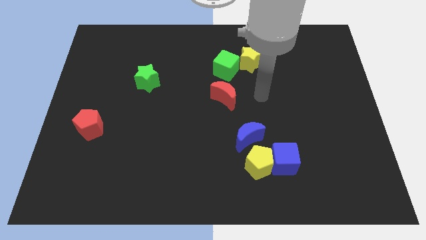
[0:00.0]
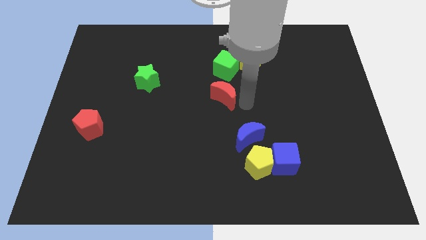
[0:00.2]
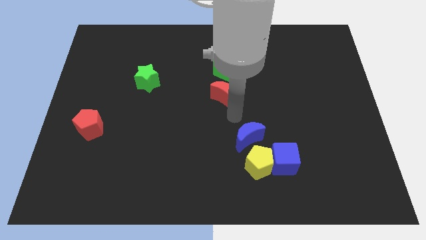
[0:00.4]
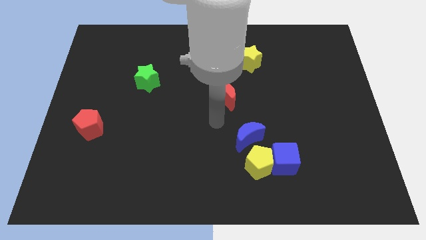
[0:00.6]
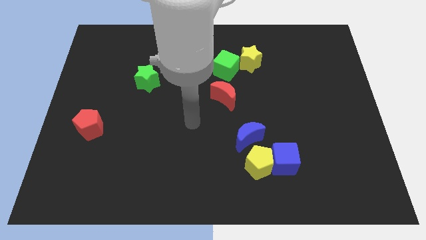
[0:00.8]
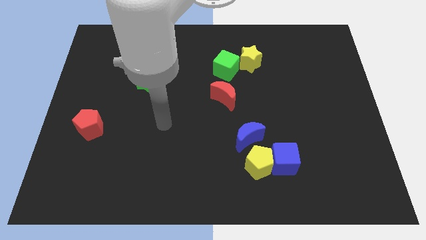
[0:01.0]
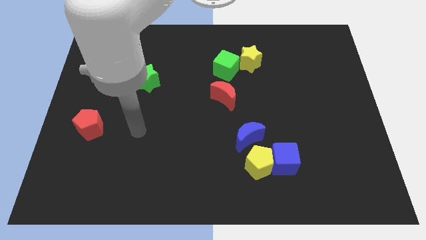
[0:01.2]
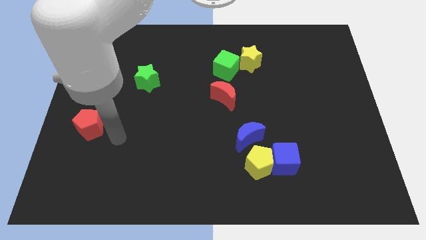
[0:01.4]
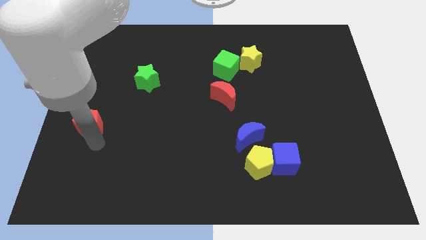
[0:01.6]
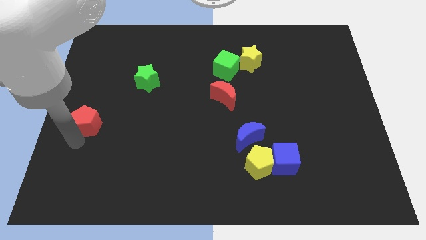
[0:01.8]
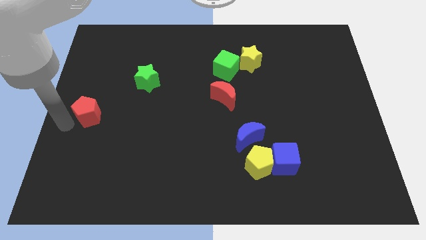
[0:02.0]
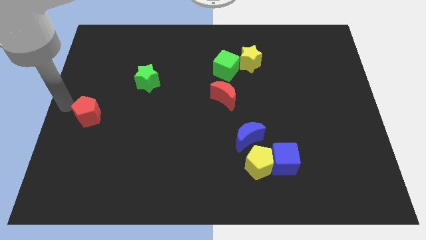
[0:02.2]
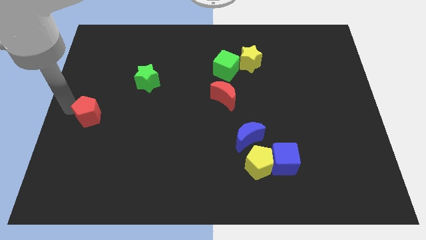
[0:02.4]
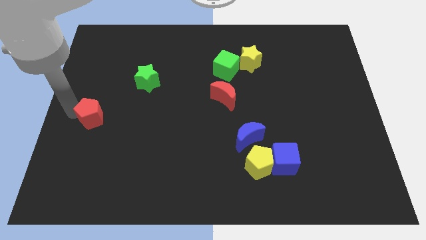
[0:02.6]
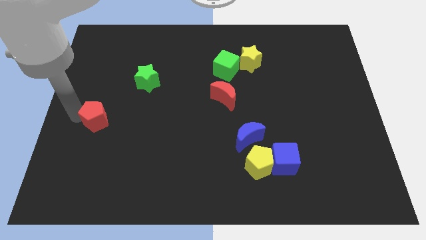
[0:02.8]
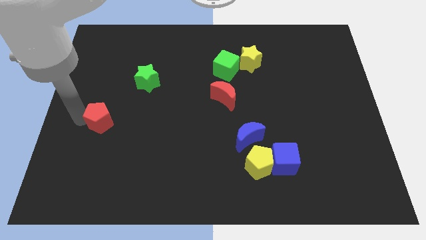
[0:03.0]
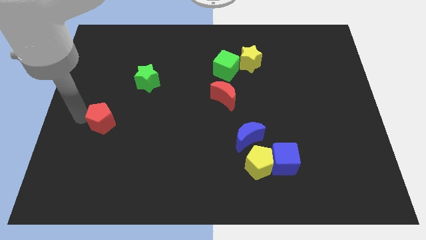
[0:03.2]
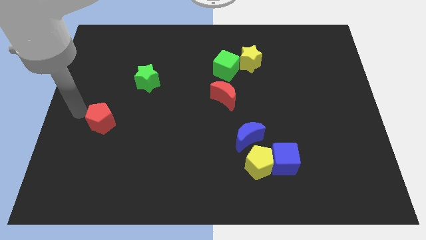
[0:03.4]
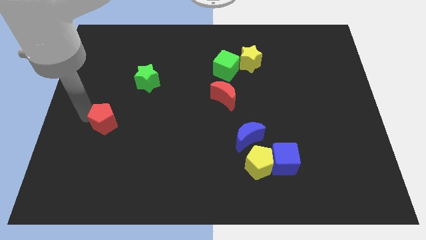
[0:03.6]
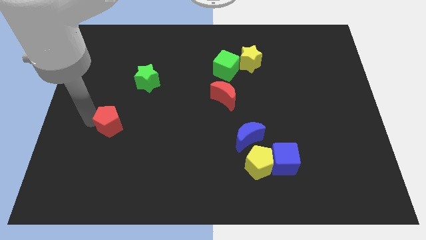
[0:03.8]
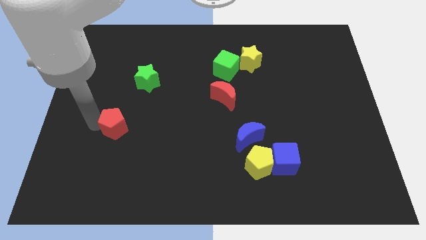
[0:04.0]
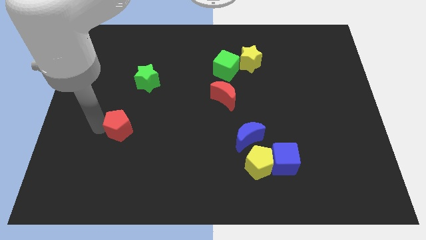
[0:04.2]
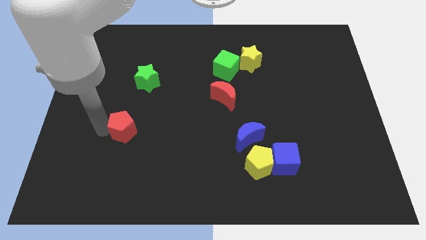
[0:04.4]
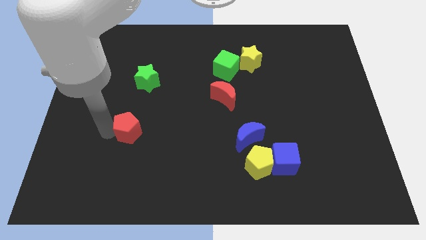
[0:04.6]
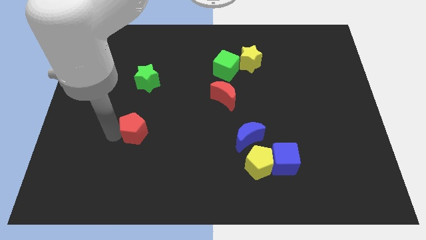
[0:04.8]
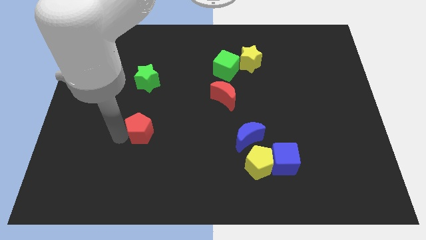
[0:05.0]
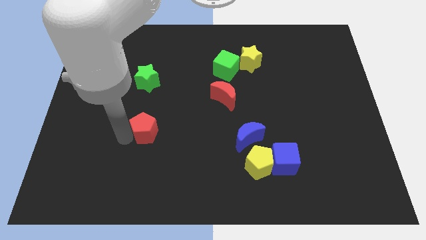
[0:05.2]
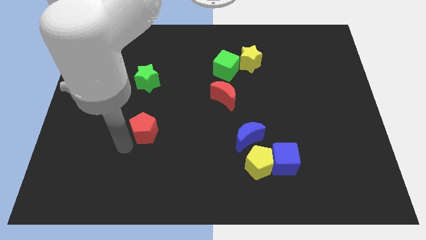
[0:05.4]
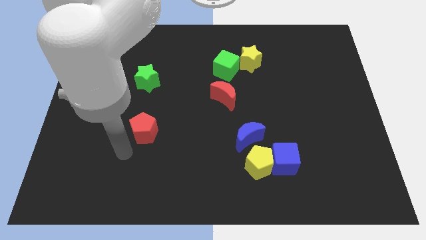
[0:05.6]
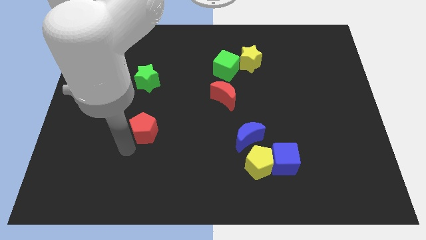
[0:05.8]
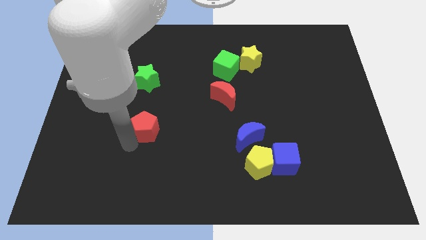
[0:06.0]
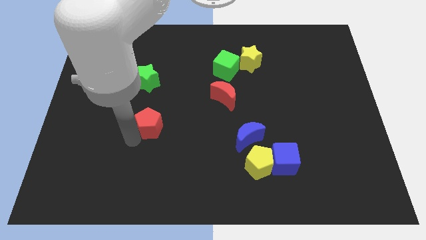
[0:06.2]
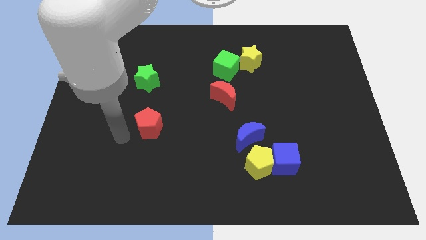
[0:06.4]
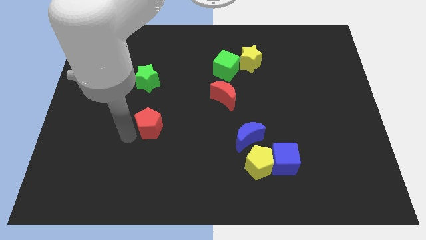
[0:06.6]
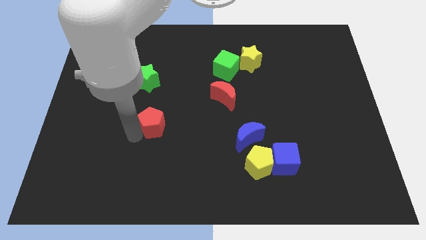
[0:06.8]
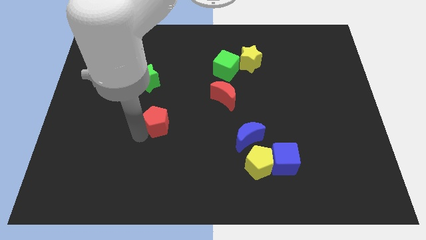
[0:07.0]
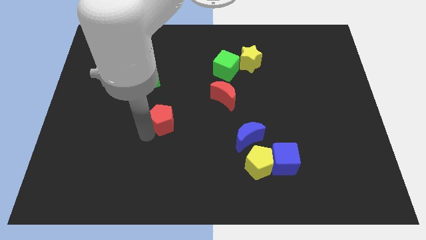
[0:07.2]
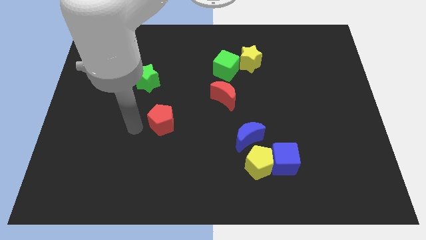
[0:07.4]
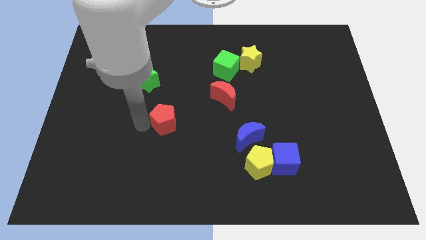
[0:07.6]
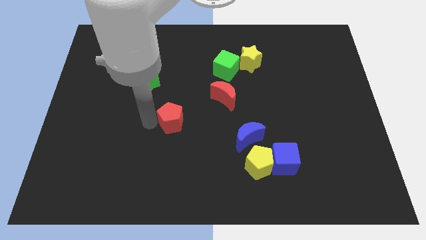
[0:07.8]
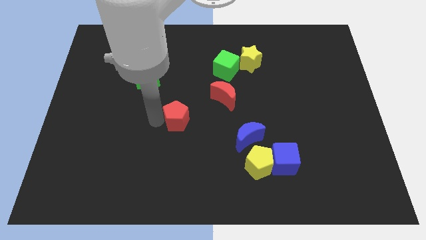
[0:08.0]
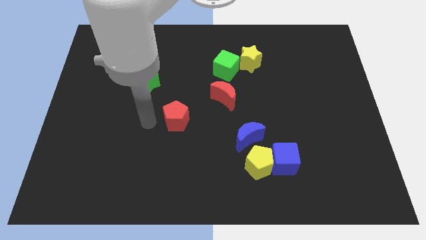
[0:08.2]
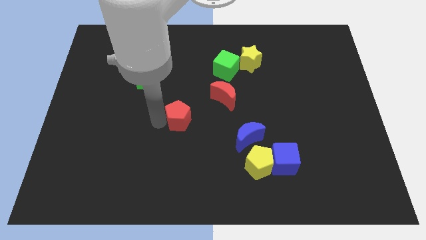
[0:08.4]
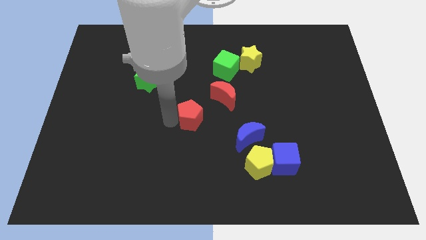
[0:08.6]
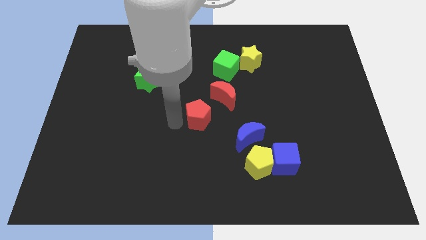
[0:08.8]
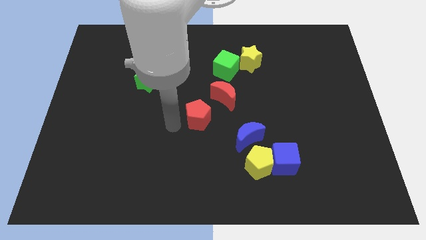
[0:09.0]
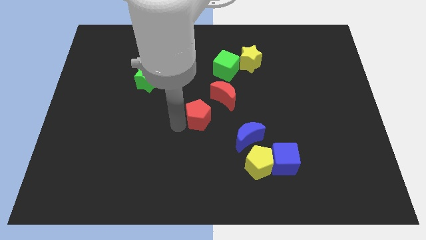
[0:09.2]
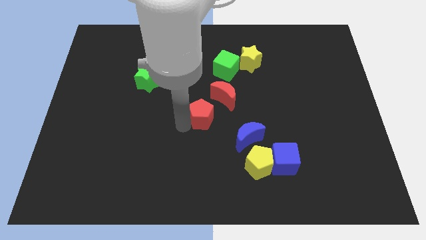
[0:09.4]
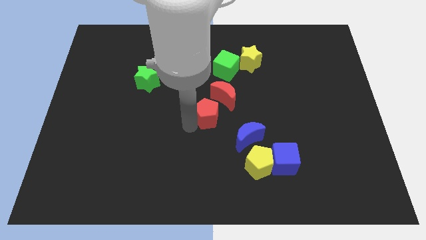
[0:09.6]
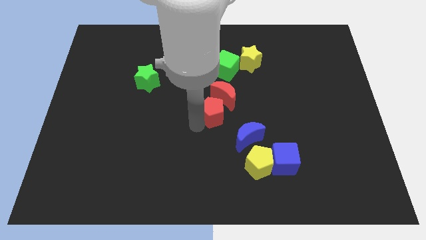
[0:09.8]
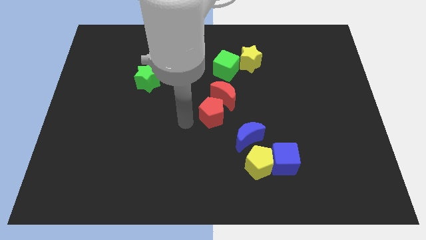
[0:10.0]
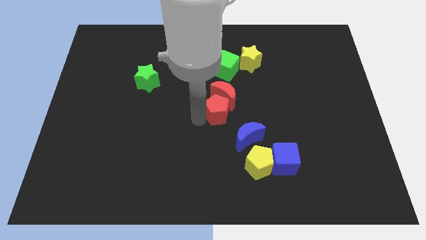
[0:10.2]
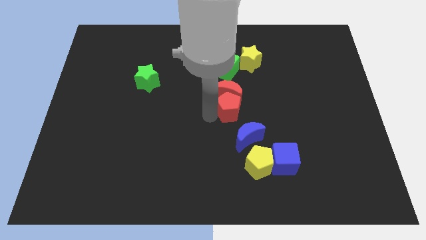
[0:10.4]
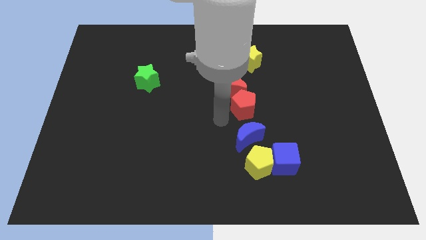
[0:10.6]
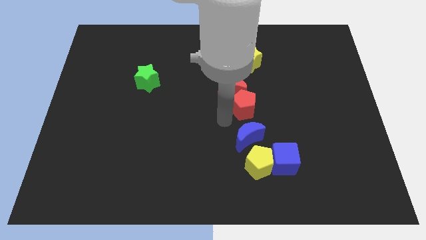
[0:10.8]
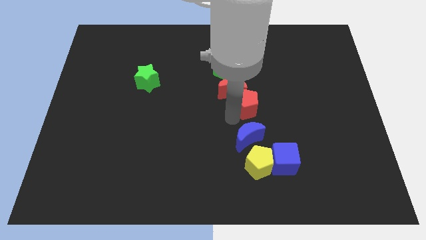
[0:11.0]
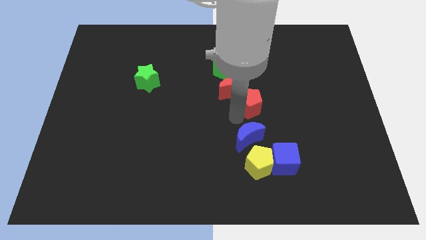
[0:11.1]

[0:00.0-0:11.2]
move the red pentagon to the right side of the red moon

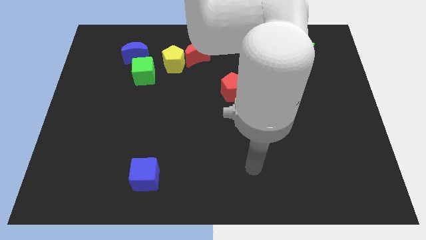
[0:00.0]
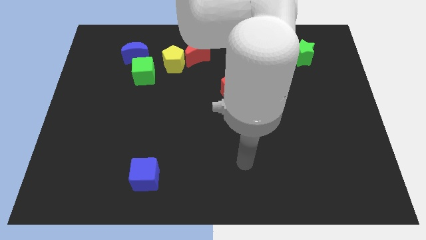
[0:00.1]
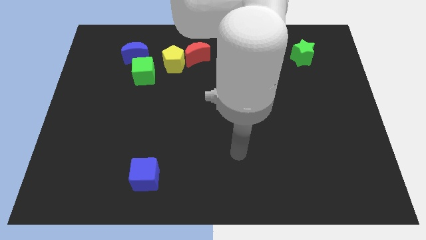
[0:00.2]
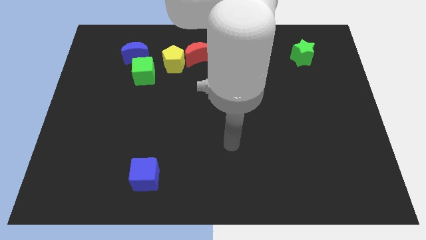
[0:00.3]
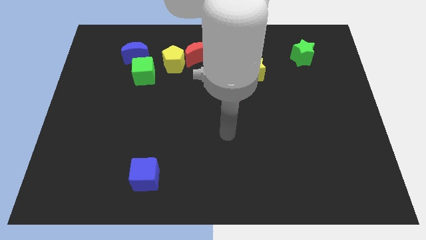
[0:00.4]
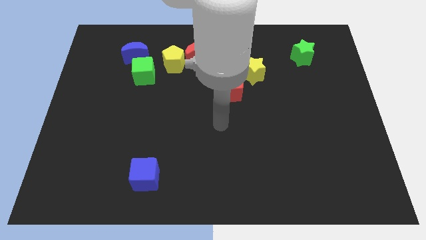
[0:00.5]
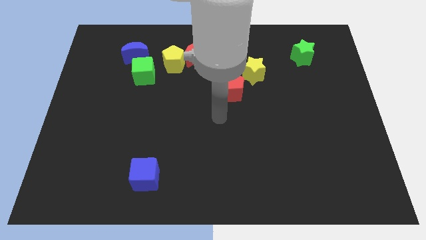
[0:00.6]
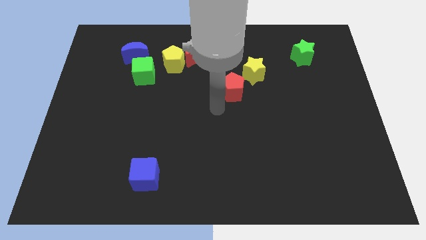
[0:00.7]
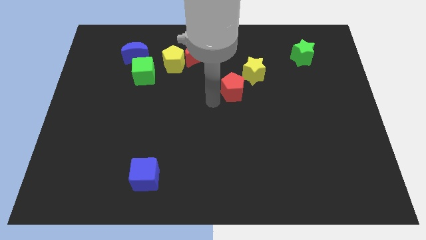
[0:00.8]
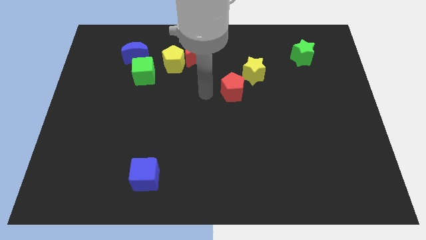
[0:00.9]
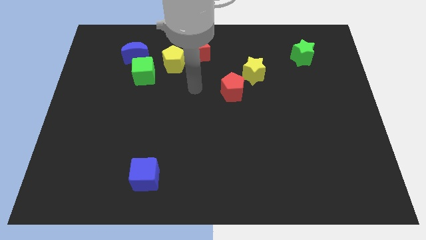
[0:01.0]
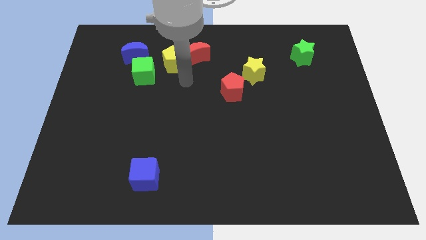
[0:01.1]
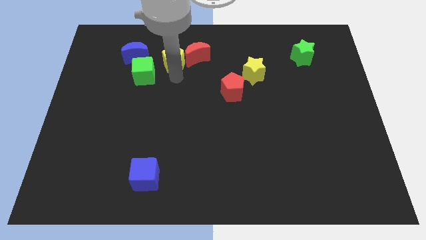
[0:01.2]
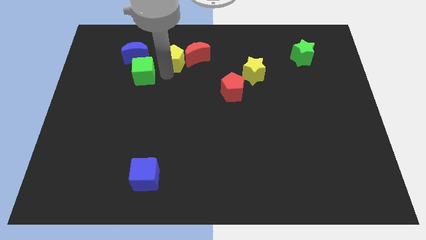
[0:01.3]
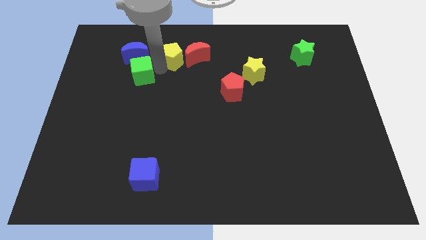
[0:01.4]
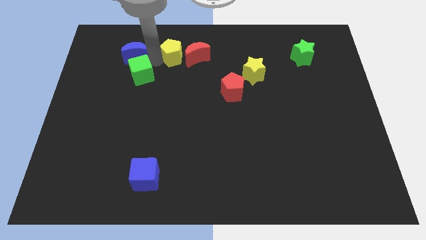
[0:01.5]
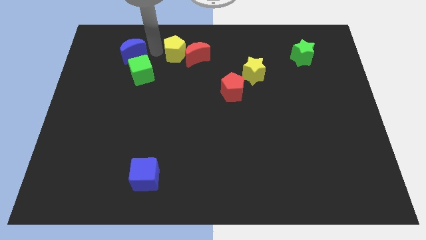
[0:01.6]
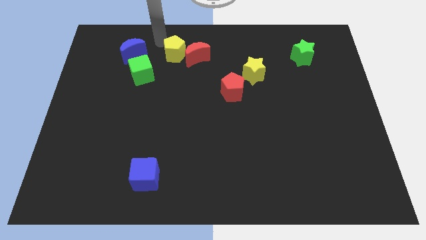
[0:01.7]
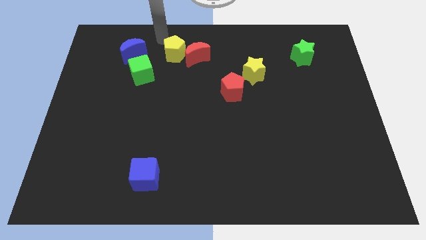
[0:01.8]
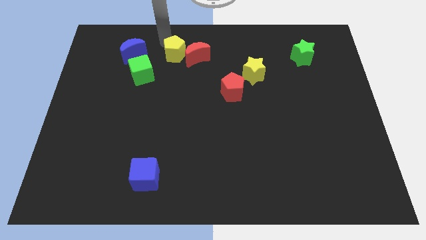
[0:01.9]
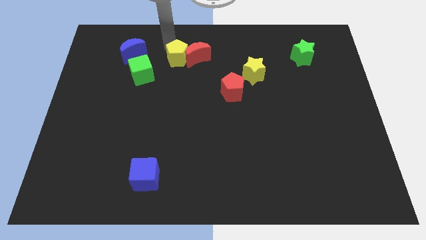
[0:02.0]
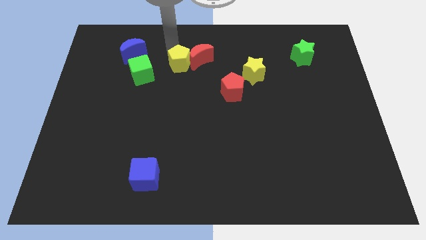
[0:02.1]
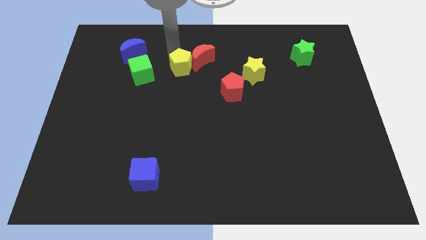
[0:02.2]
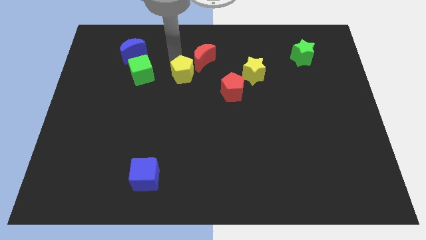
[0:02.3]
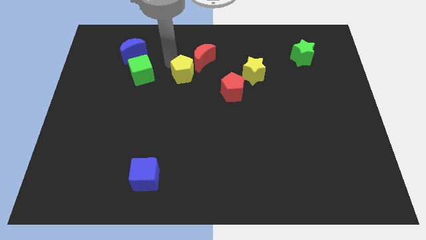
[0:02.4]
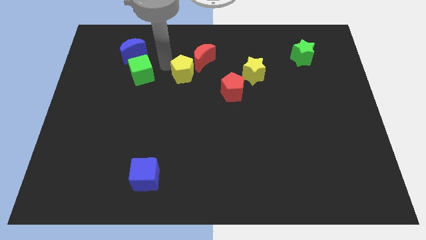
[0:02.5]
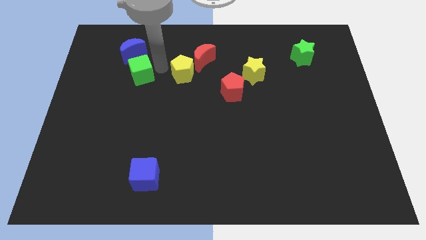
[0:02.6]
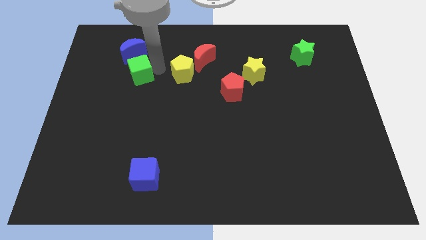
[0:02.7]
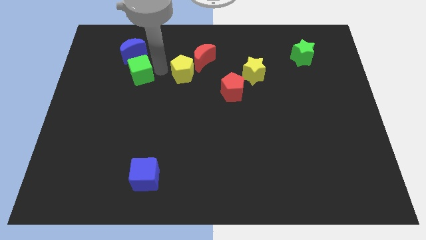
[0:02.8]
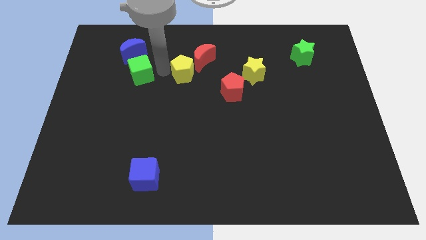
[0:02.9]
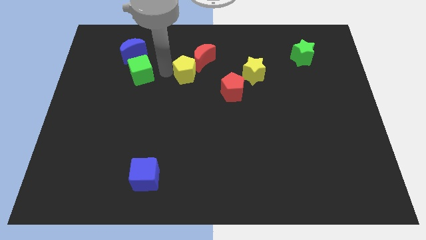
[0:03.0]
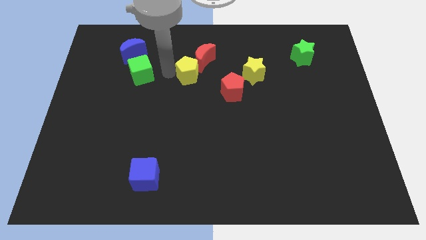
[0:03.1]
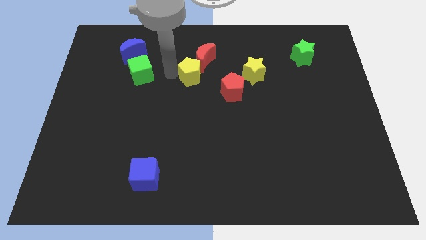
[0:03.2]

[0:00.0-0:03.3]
move the yellow pentagon to the top left of the red pentagon
